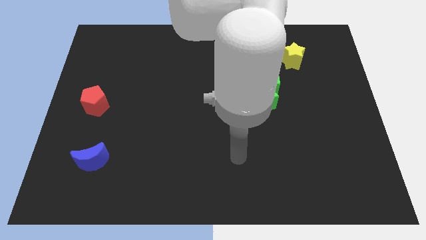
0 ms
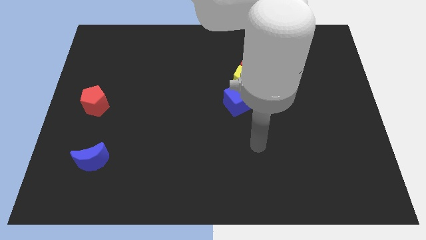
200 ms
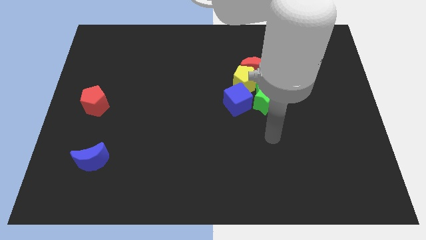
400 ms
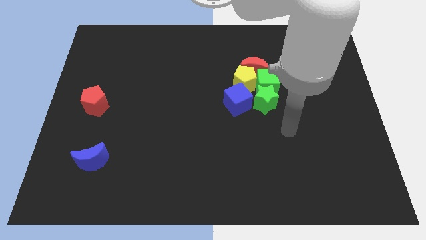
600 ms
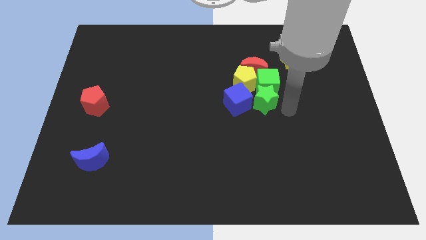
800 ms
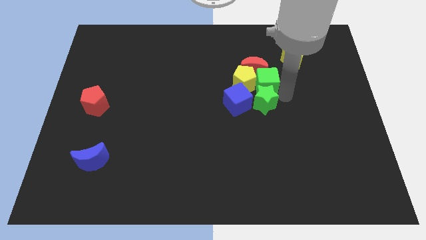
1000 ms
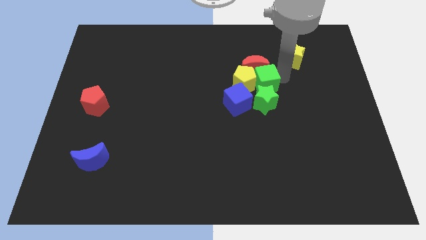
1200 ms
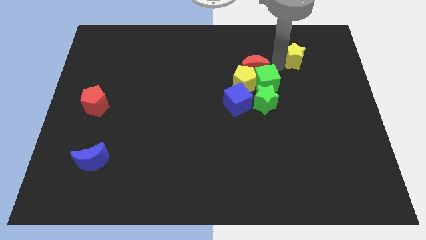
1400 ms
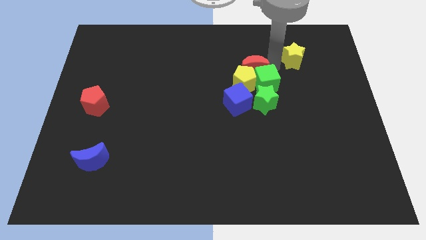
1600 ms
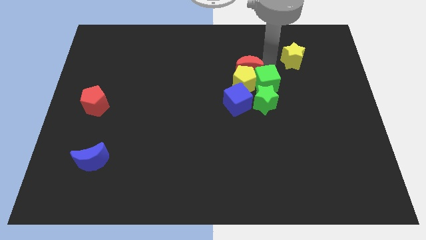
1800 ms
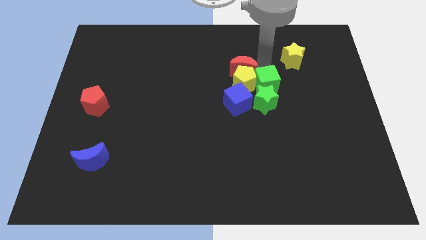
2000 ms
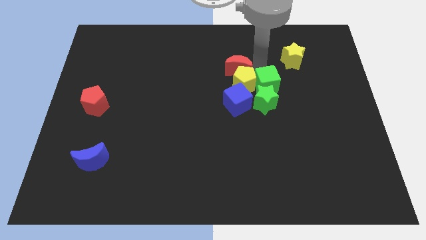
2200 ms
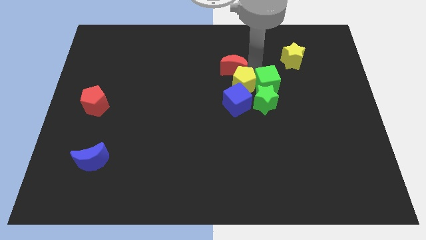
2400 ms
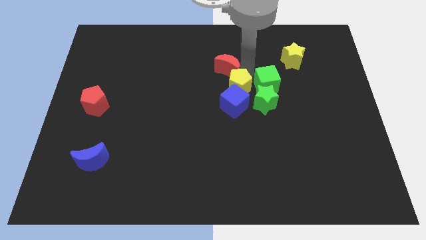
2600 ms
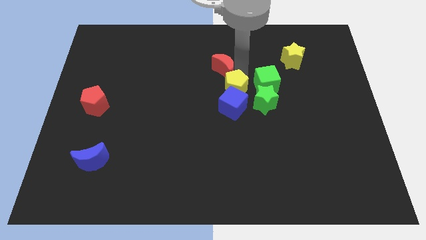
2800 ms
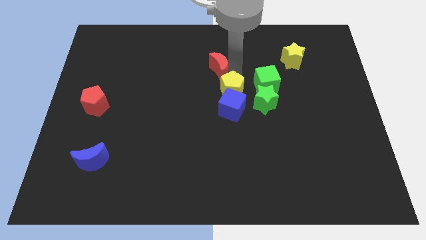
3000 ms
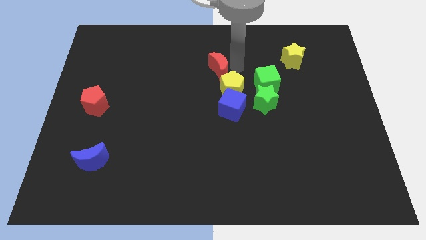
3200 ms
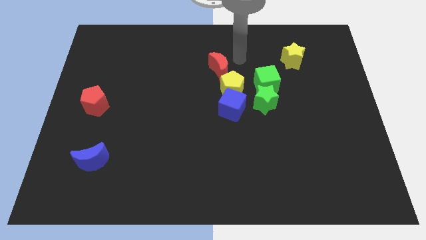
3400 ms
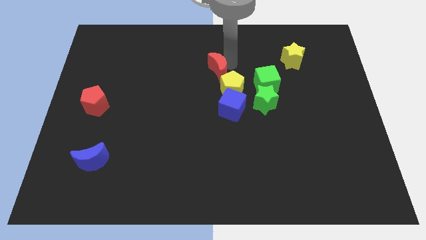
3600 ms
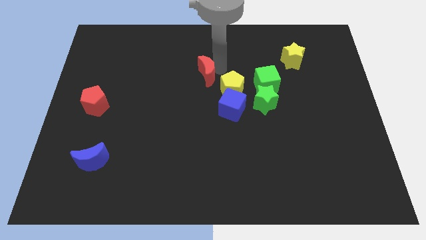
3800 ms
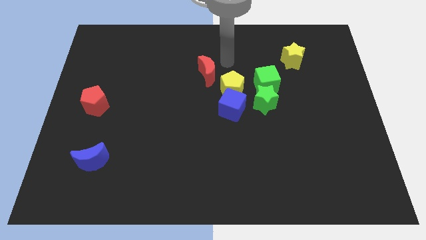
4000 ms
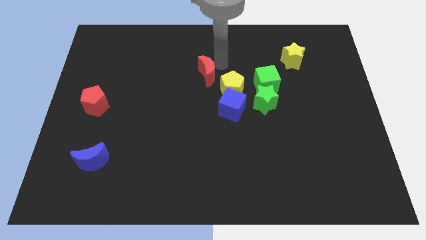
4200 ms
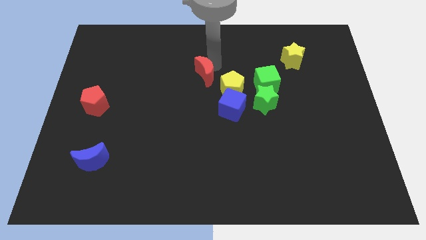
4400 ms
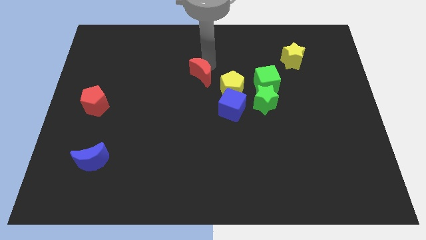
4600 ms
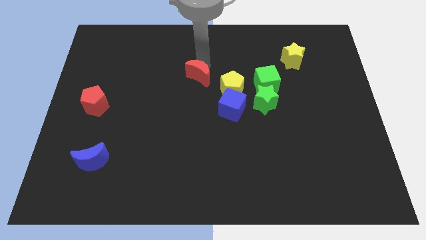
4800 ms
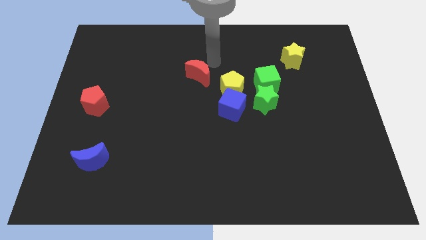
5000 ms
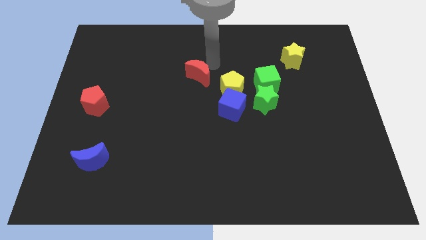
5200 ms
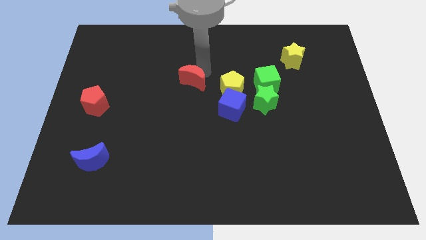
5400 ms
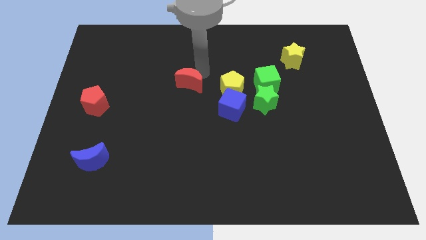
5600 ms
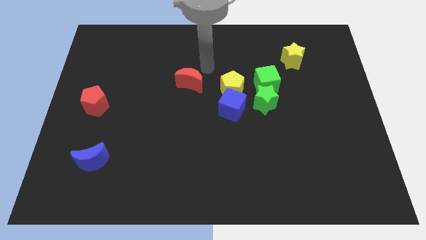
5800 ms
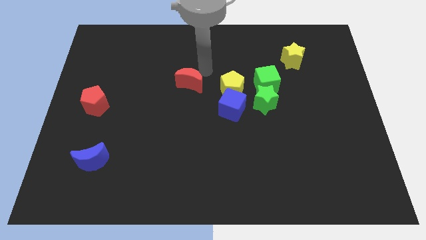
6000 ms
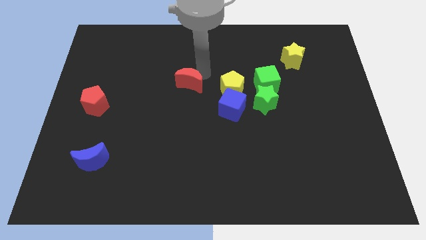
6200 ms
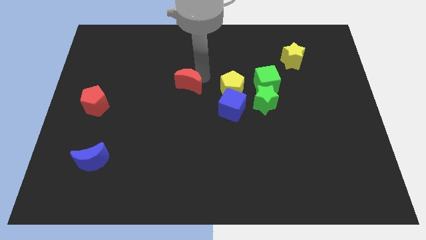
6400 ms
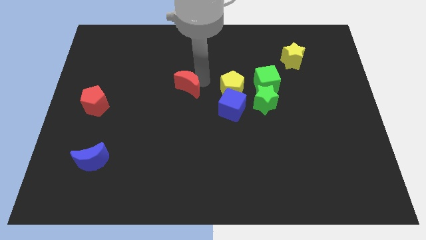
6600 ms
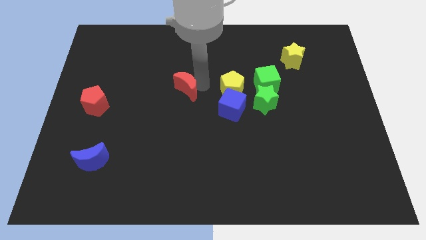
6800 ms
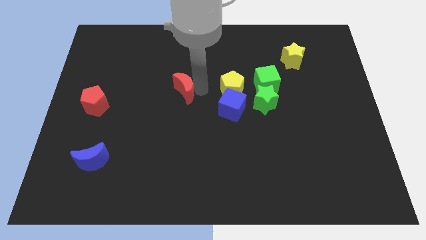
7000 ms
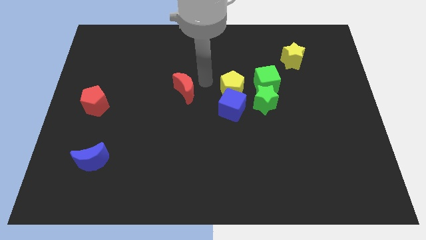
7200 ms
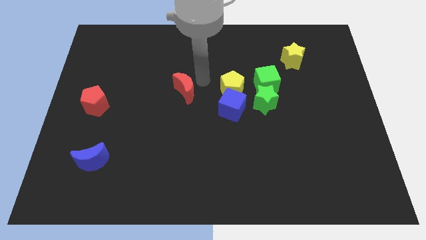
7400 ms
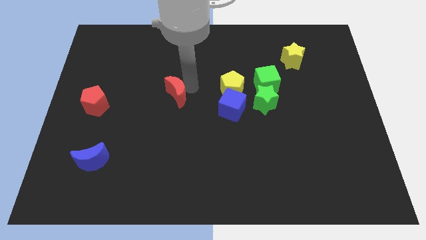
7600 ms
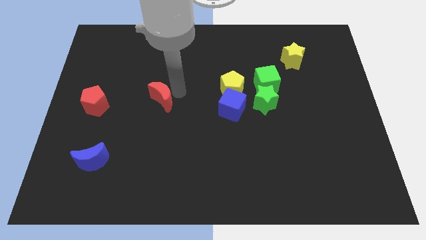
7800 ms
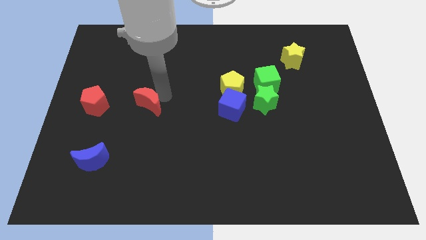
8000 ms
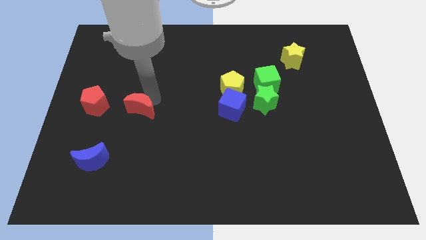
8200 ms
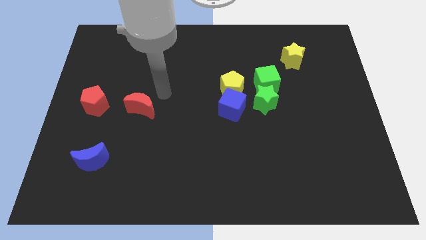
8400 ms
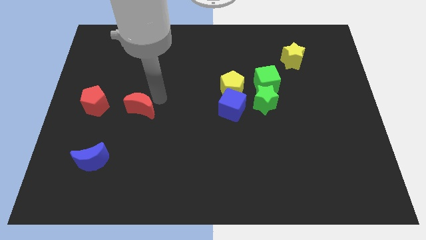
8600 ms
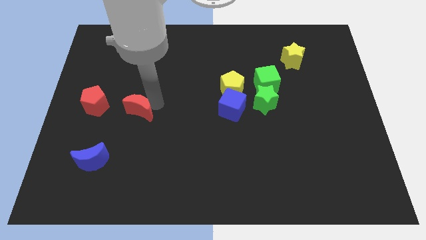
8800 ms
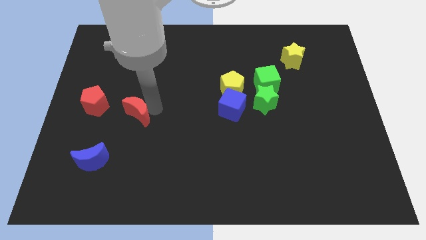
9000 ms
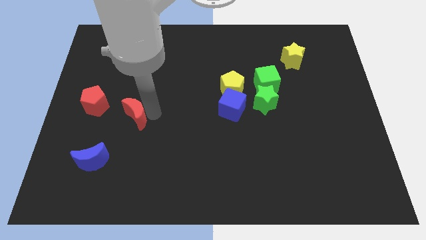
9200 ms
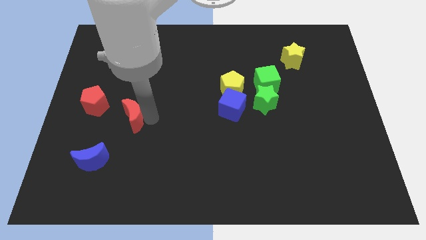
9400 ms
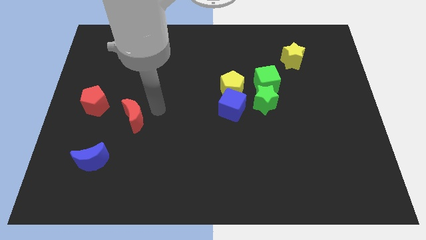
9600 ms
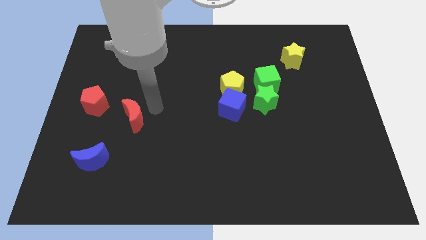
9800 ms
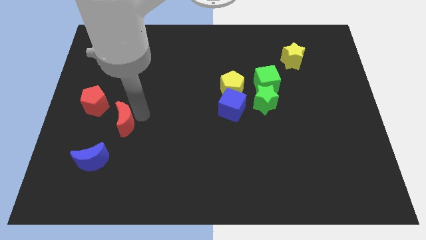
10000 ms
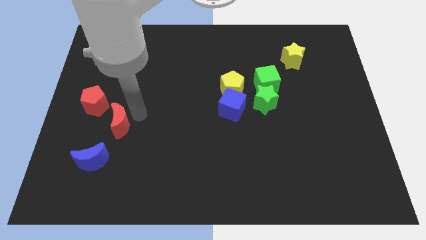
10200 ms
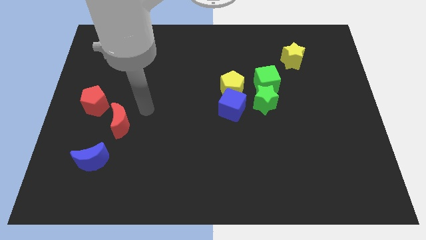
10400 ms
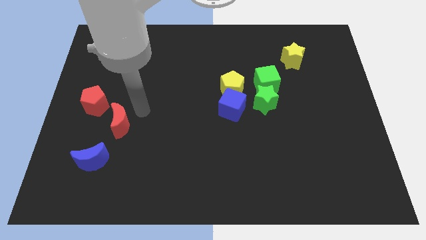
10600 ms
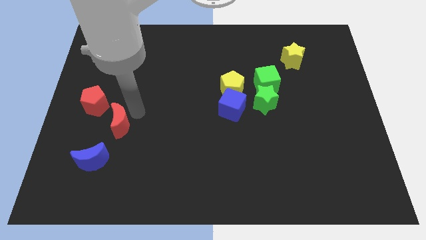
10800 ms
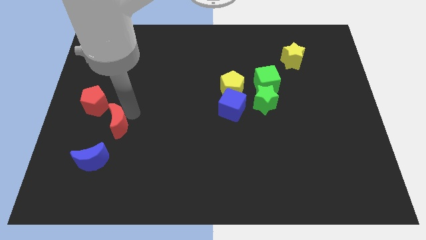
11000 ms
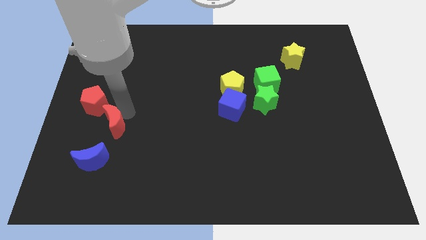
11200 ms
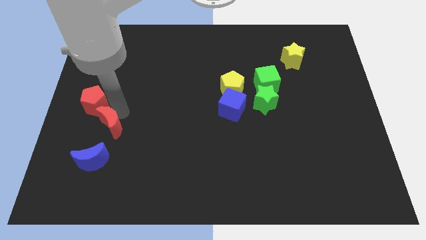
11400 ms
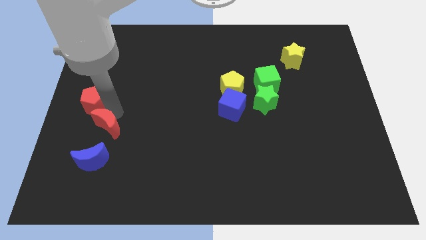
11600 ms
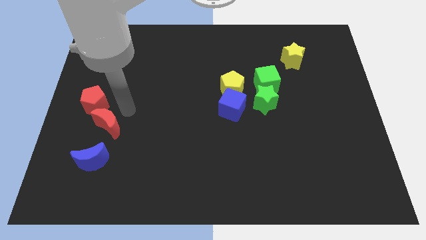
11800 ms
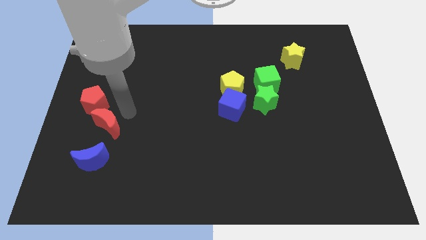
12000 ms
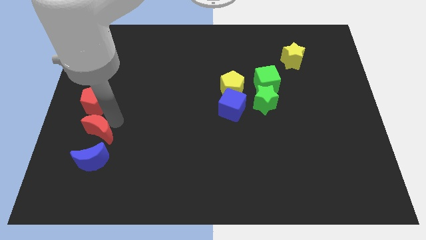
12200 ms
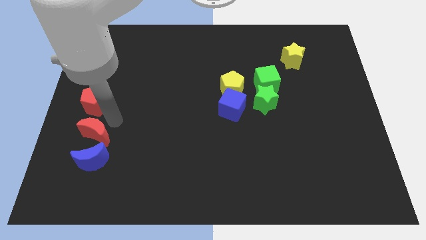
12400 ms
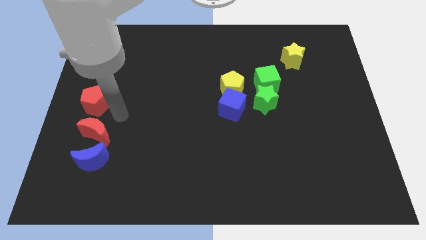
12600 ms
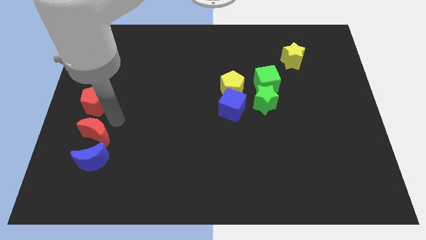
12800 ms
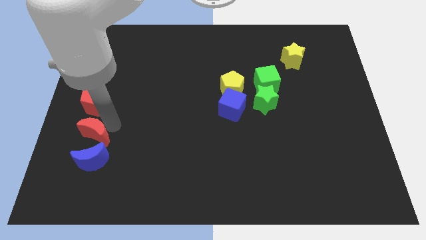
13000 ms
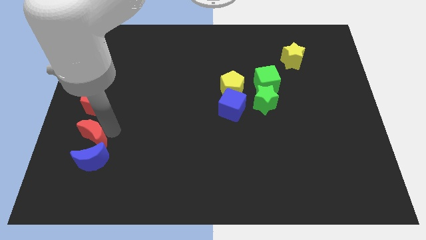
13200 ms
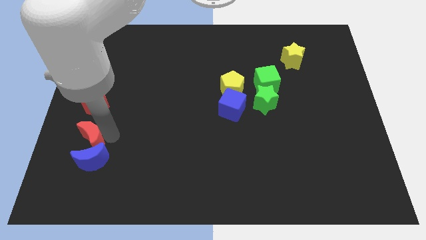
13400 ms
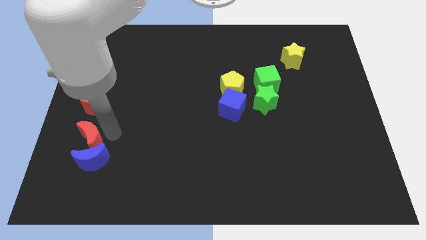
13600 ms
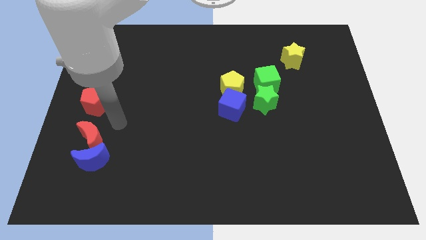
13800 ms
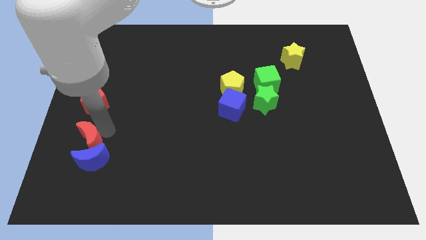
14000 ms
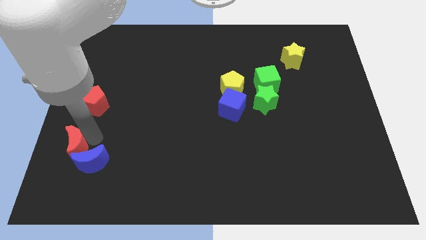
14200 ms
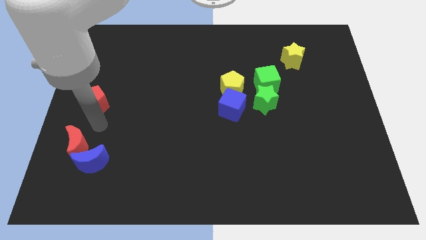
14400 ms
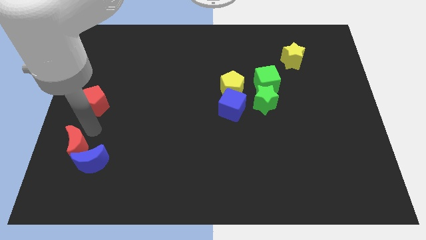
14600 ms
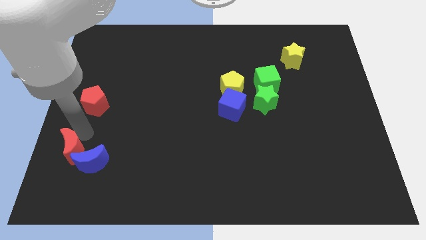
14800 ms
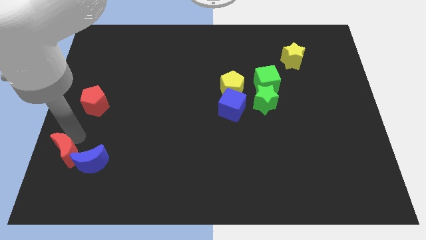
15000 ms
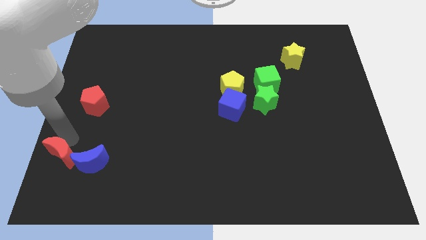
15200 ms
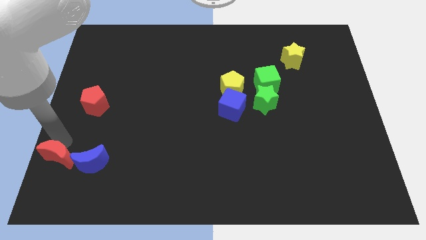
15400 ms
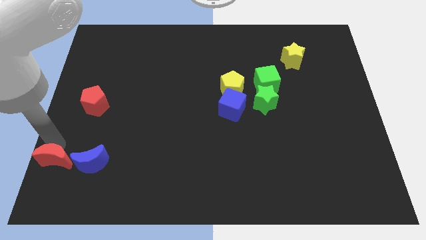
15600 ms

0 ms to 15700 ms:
push the red moon to the bottom left of the board

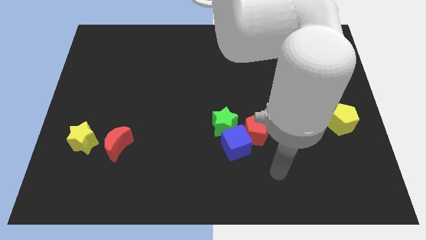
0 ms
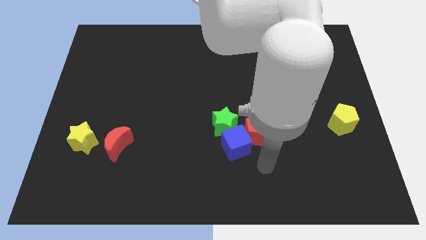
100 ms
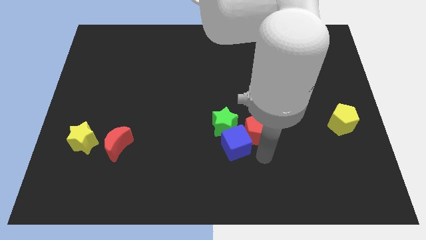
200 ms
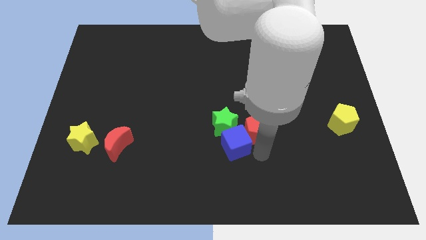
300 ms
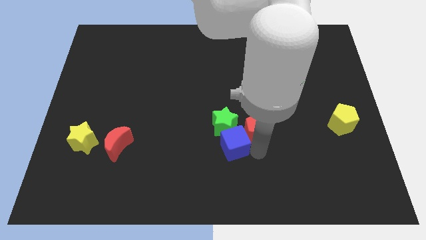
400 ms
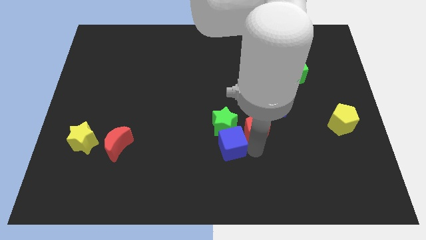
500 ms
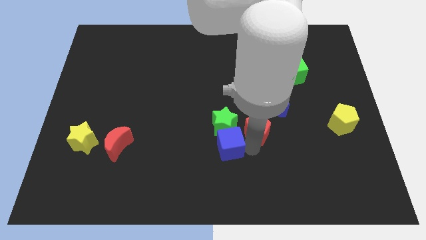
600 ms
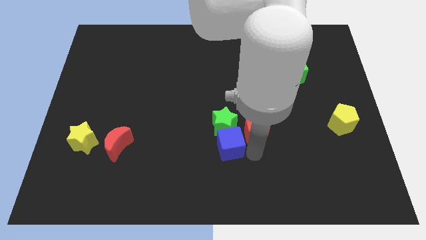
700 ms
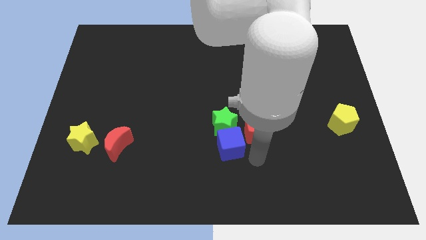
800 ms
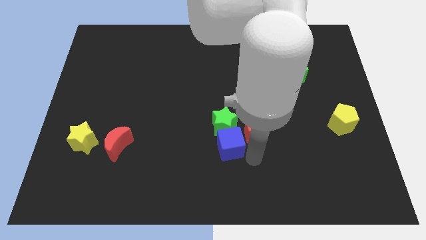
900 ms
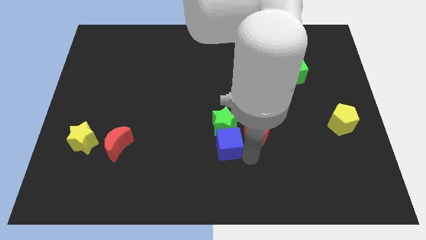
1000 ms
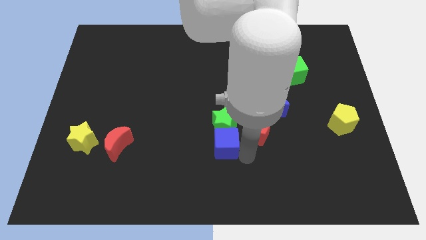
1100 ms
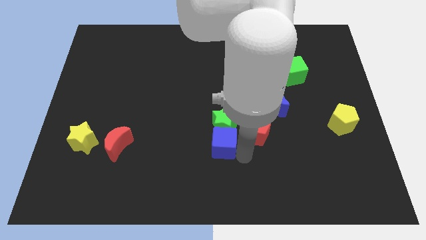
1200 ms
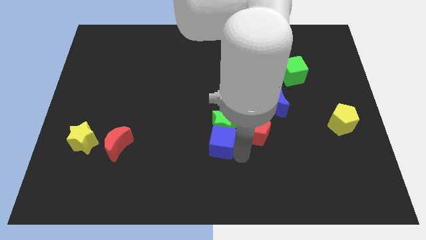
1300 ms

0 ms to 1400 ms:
put the blue cube to the middle
